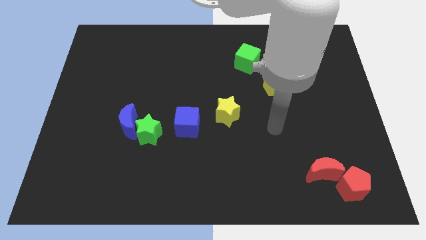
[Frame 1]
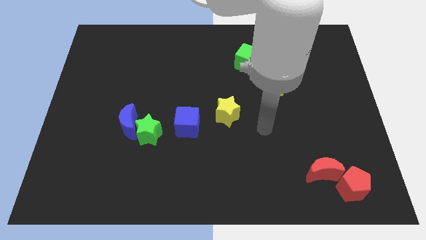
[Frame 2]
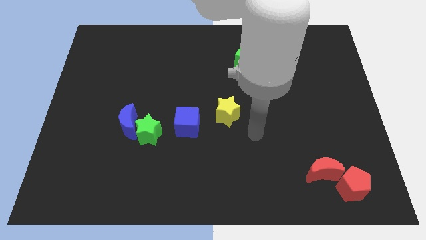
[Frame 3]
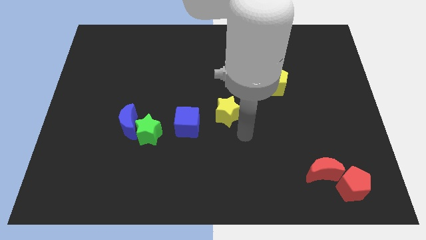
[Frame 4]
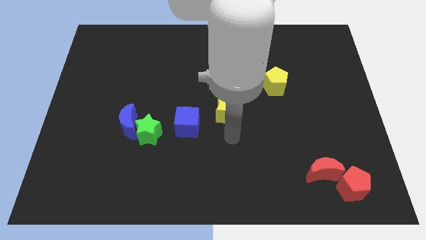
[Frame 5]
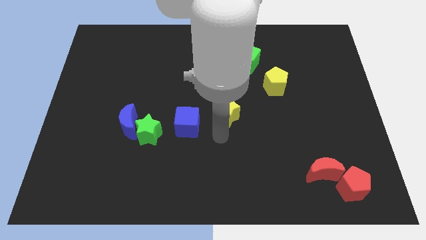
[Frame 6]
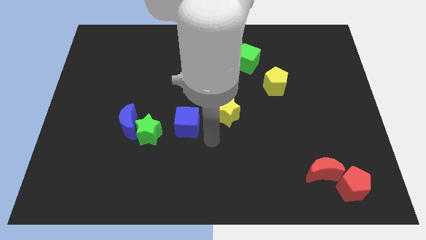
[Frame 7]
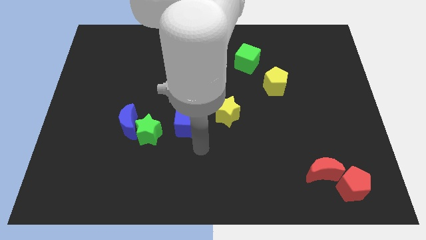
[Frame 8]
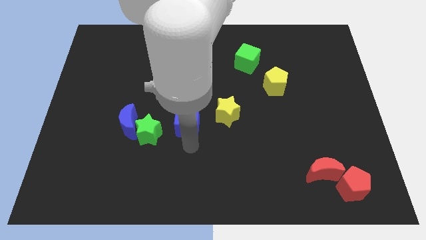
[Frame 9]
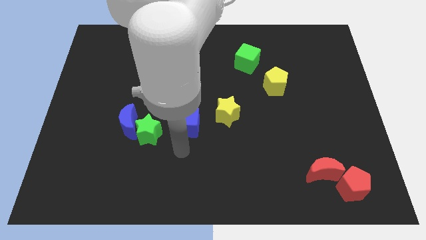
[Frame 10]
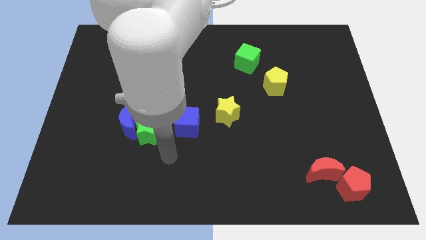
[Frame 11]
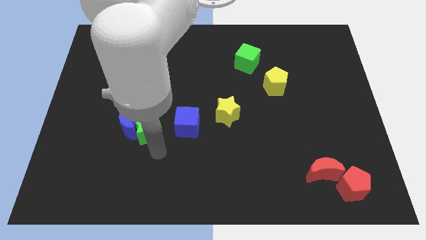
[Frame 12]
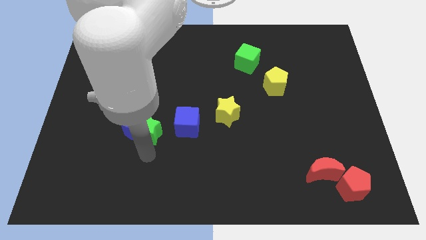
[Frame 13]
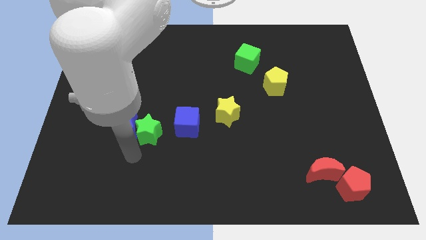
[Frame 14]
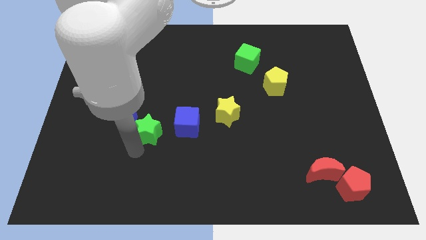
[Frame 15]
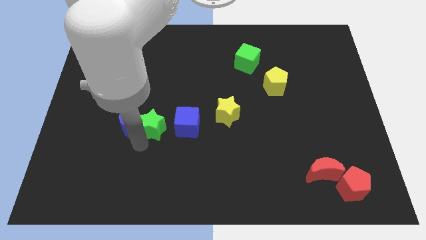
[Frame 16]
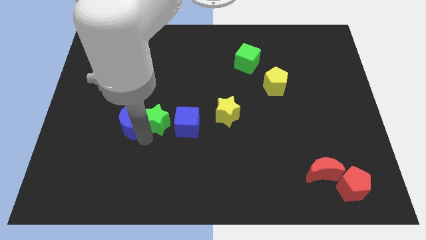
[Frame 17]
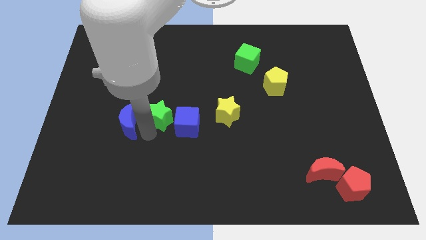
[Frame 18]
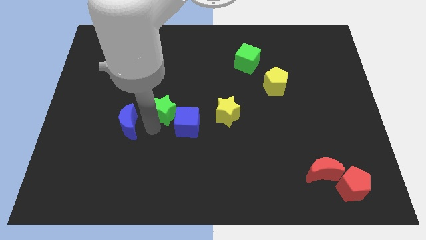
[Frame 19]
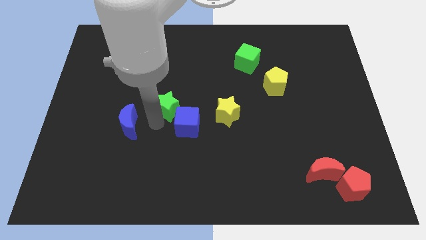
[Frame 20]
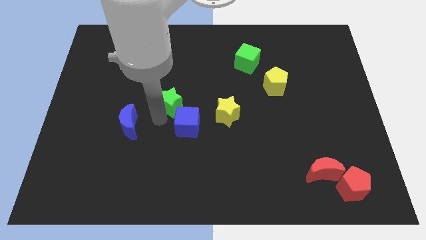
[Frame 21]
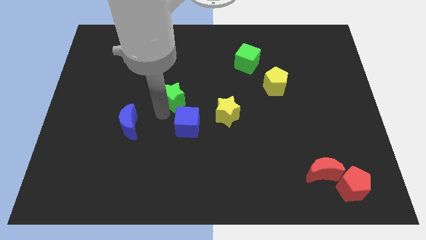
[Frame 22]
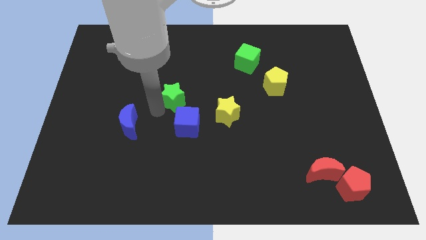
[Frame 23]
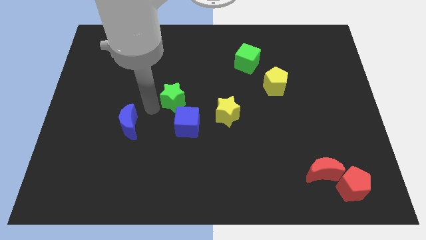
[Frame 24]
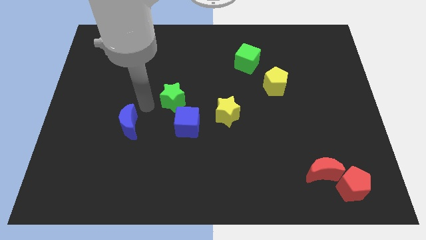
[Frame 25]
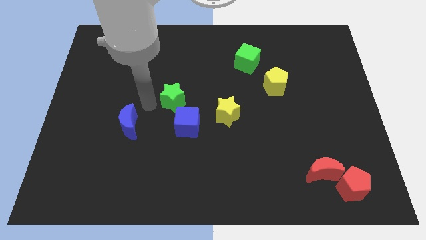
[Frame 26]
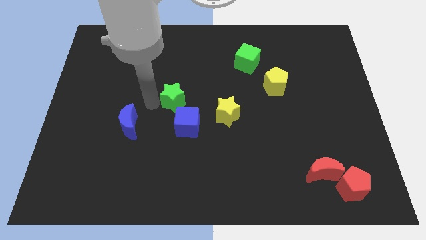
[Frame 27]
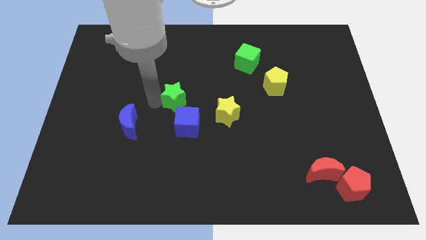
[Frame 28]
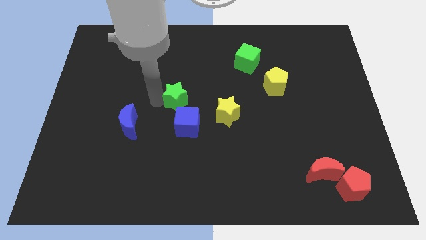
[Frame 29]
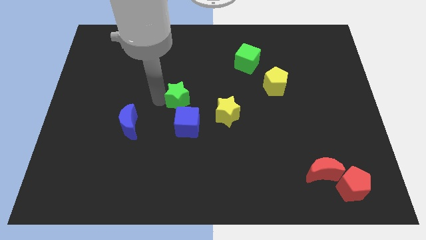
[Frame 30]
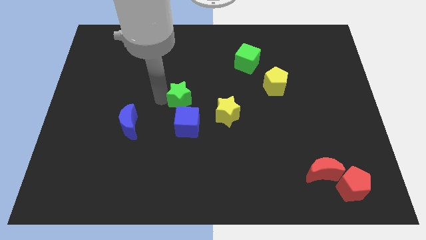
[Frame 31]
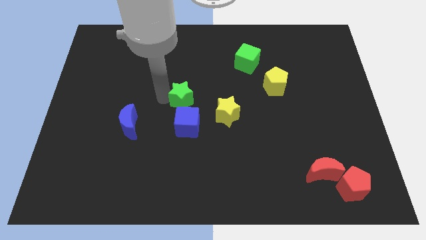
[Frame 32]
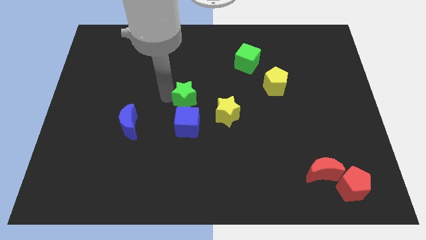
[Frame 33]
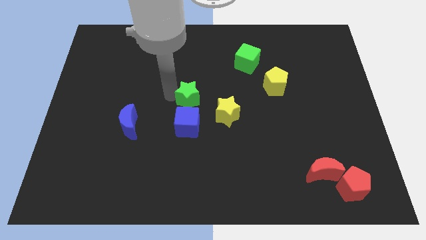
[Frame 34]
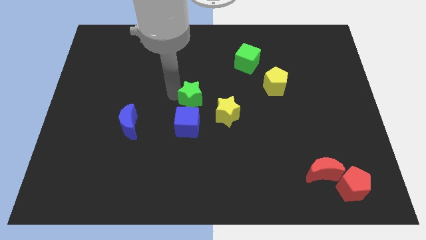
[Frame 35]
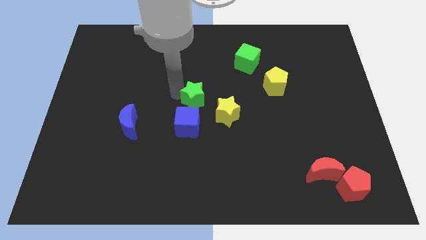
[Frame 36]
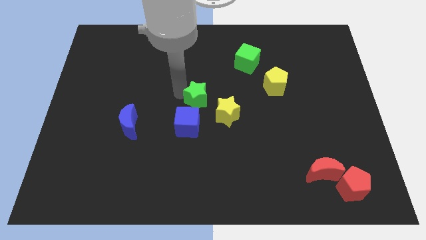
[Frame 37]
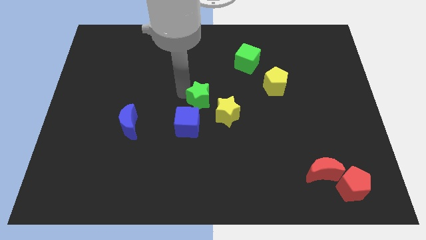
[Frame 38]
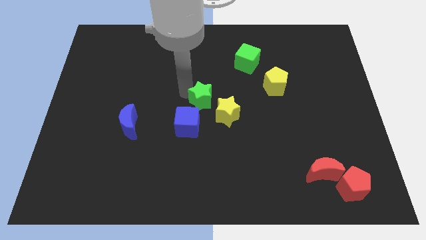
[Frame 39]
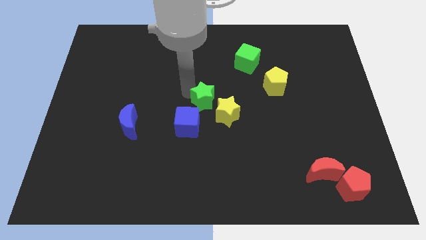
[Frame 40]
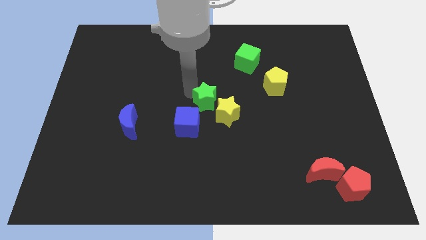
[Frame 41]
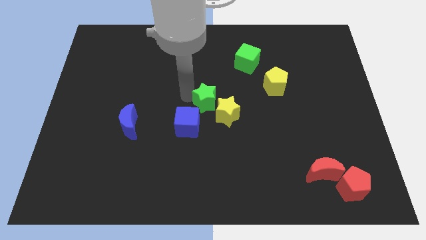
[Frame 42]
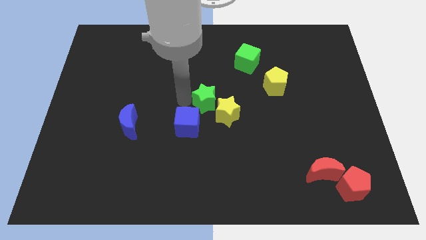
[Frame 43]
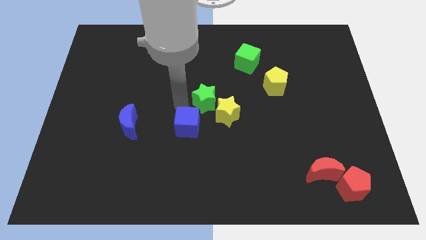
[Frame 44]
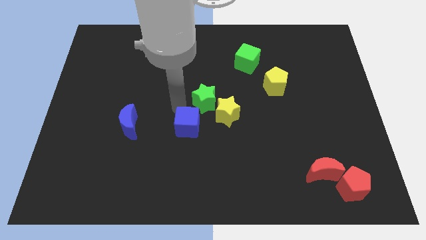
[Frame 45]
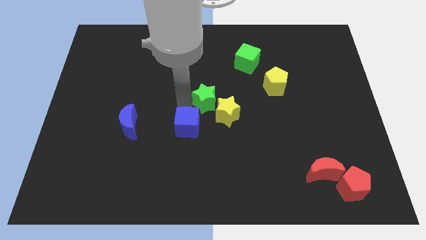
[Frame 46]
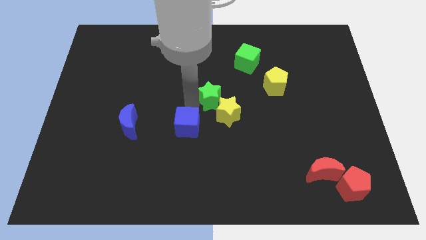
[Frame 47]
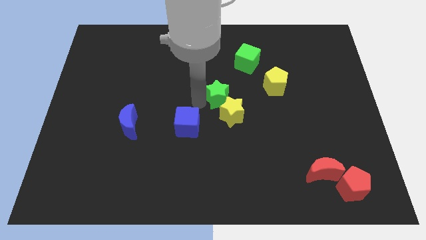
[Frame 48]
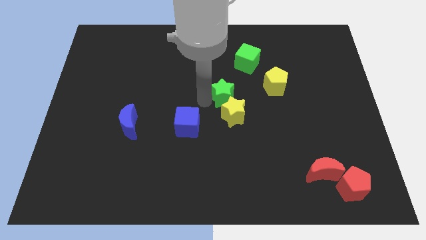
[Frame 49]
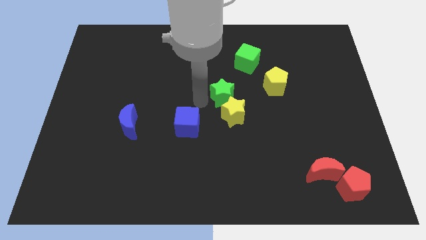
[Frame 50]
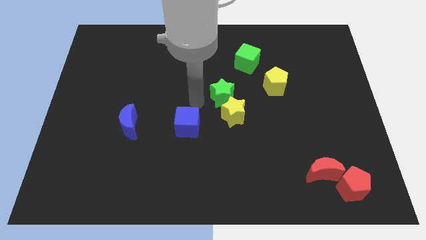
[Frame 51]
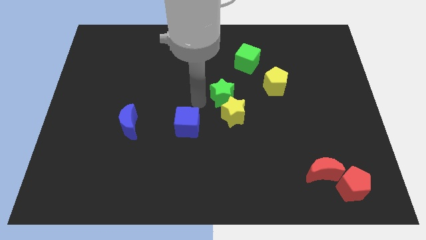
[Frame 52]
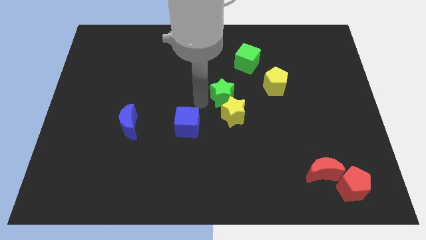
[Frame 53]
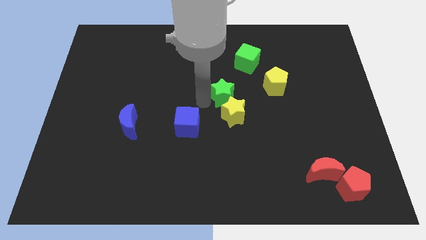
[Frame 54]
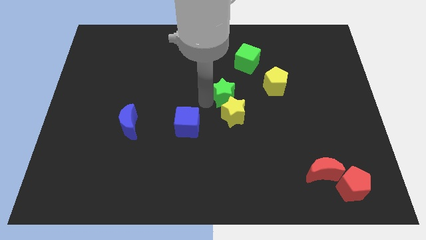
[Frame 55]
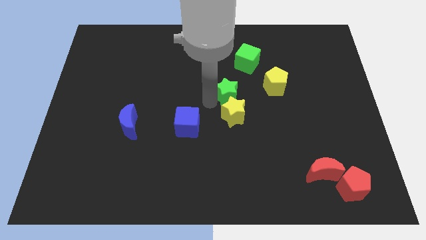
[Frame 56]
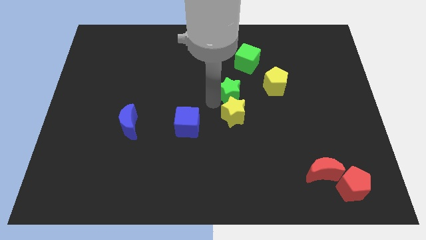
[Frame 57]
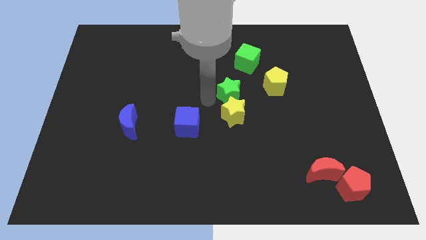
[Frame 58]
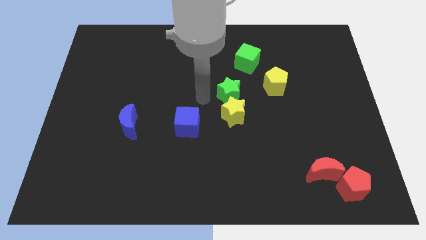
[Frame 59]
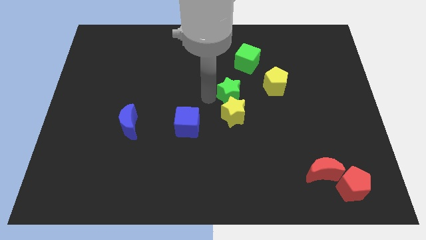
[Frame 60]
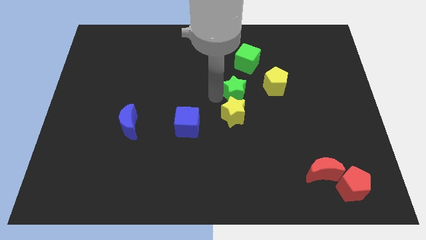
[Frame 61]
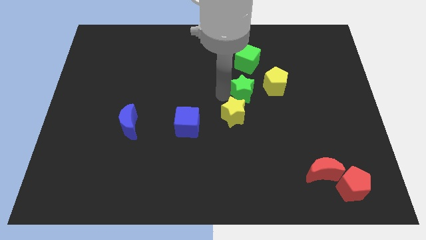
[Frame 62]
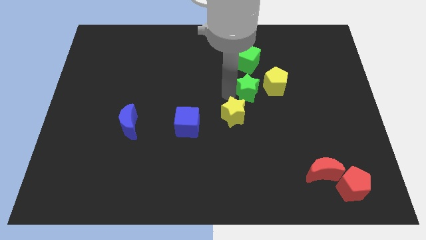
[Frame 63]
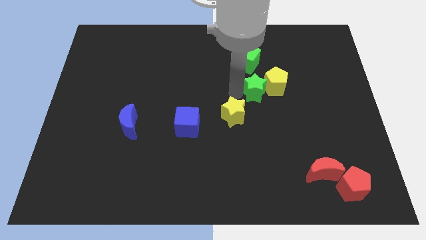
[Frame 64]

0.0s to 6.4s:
put the green star to the yellow pentagon
